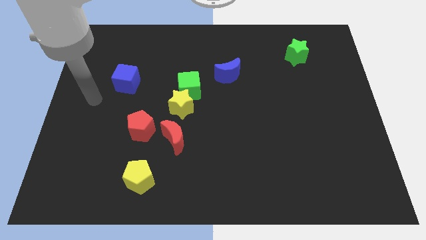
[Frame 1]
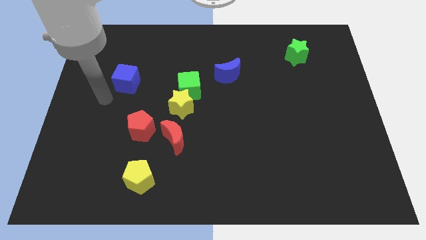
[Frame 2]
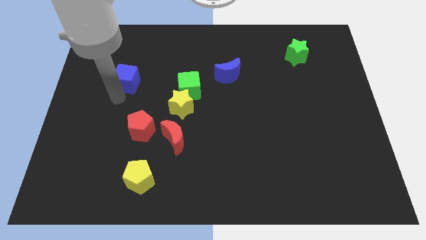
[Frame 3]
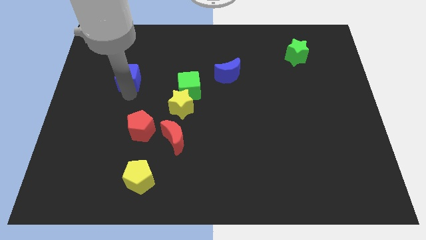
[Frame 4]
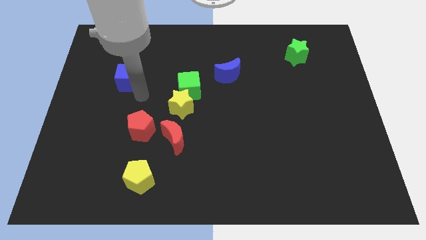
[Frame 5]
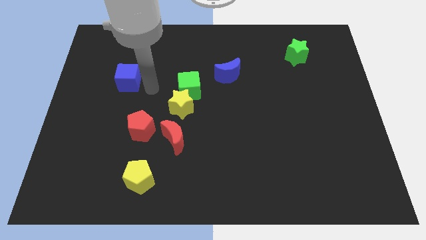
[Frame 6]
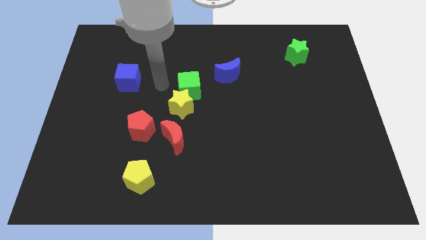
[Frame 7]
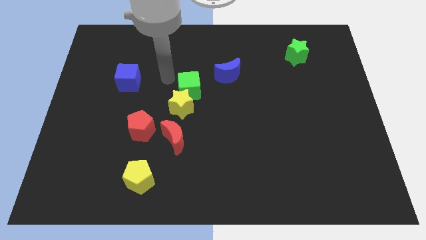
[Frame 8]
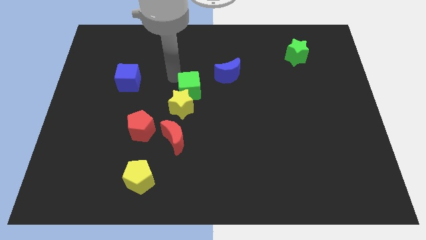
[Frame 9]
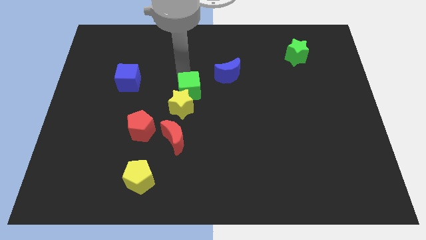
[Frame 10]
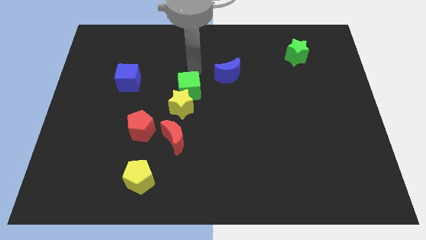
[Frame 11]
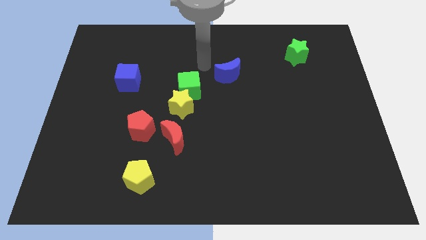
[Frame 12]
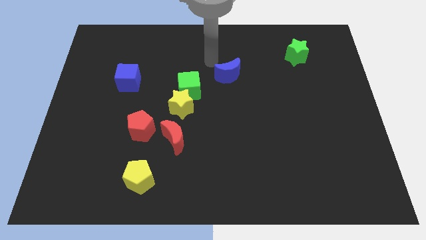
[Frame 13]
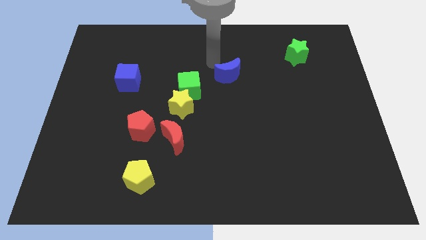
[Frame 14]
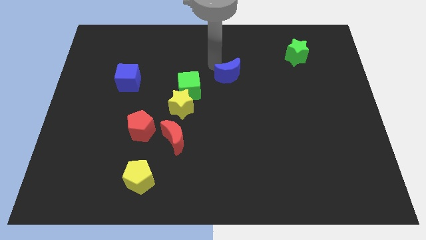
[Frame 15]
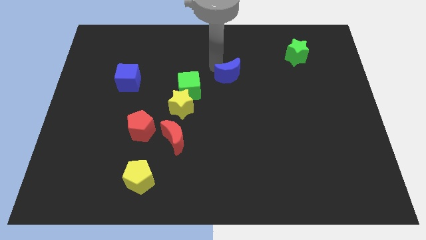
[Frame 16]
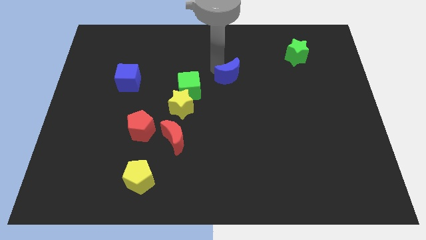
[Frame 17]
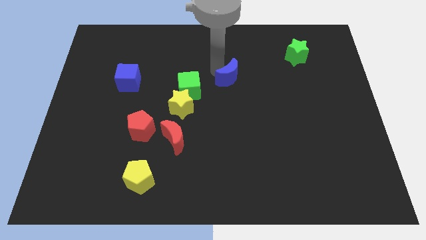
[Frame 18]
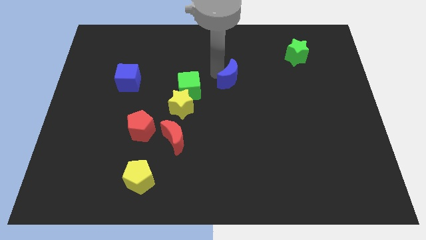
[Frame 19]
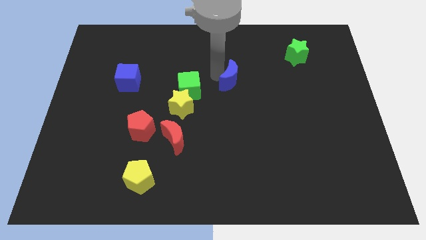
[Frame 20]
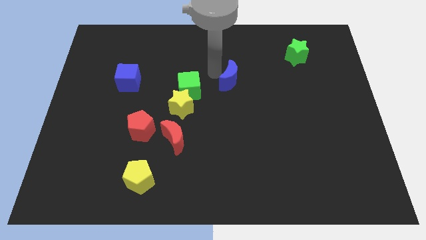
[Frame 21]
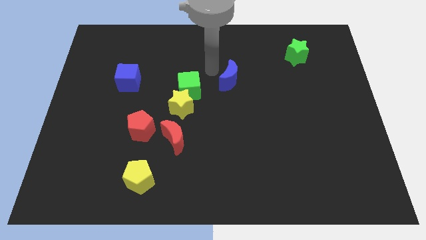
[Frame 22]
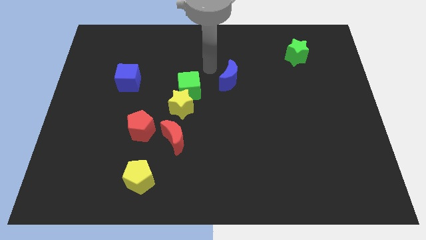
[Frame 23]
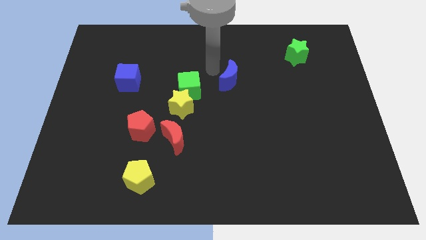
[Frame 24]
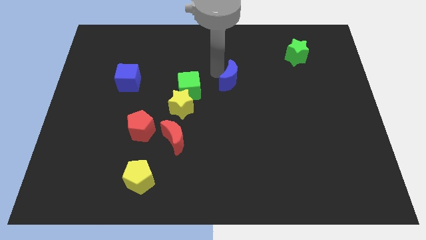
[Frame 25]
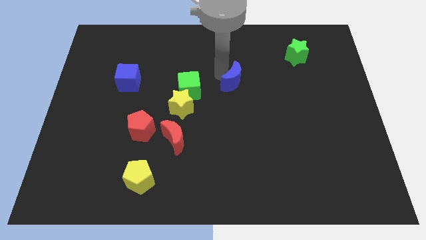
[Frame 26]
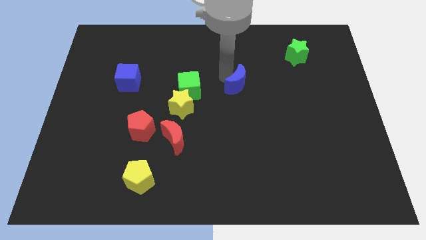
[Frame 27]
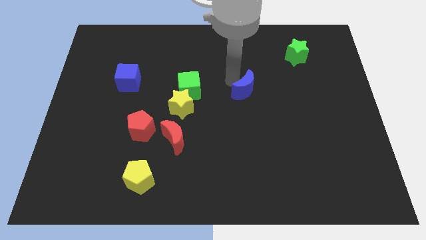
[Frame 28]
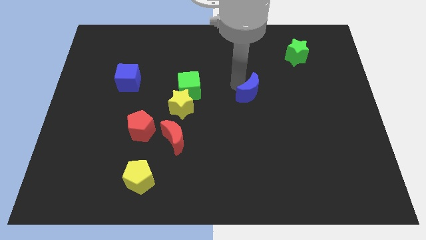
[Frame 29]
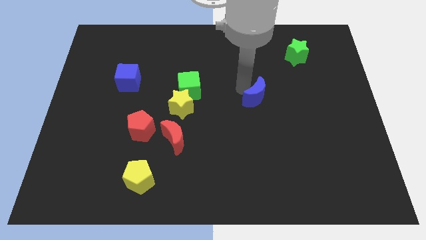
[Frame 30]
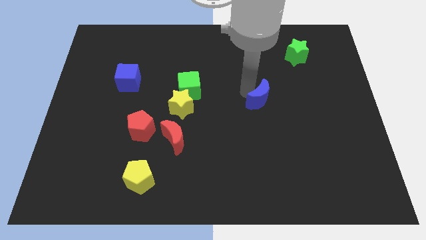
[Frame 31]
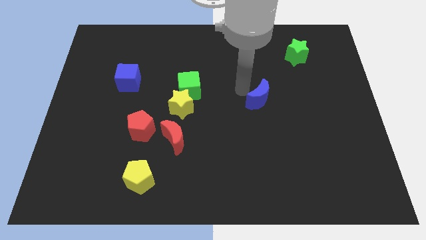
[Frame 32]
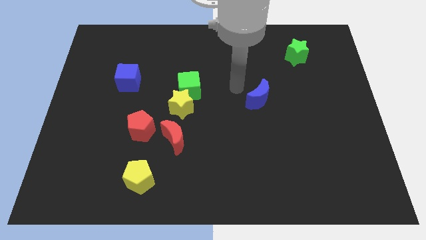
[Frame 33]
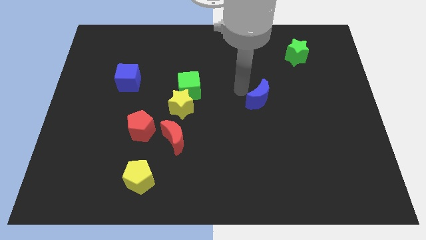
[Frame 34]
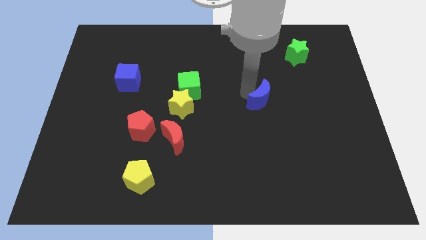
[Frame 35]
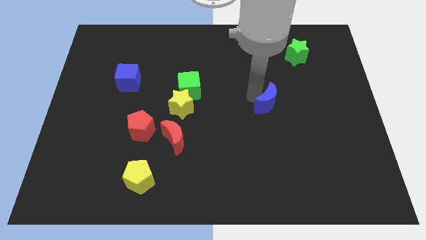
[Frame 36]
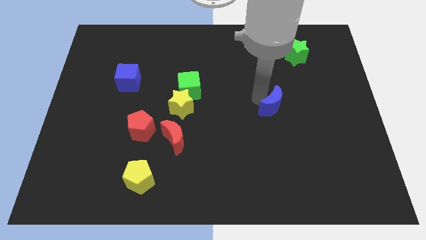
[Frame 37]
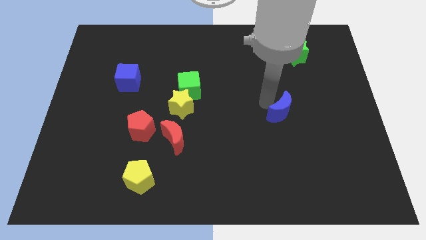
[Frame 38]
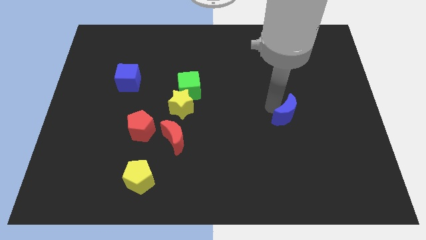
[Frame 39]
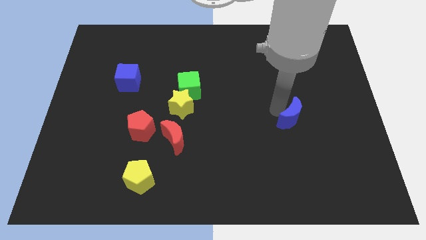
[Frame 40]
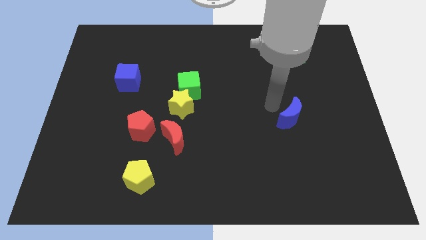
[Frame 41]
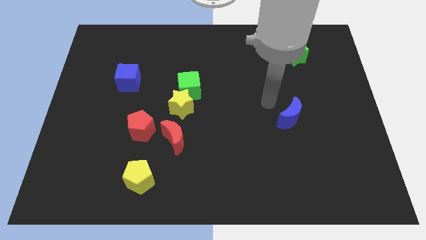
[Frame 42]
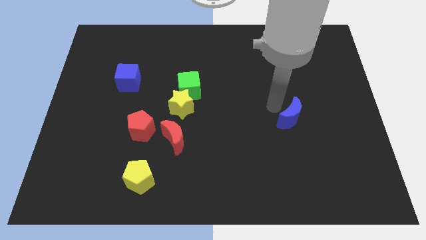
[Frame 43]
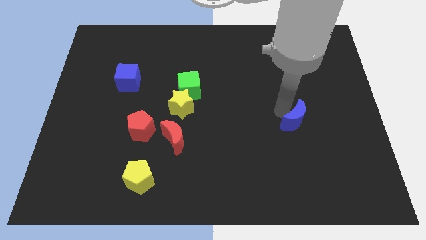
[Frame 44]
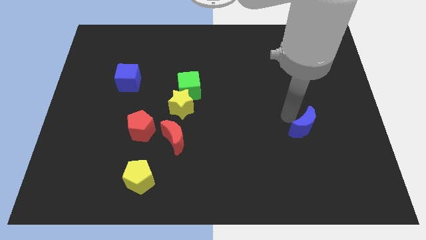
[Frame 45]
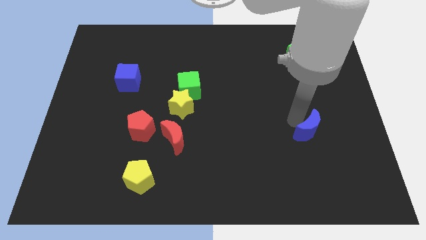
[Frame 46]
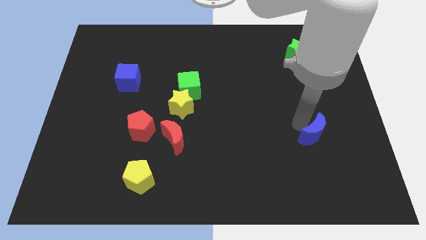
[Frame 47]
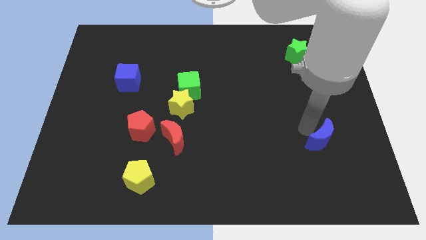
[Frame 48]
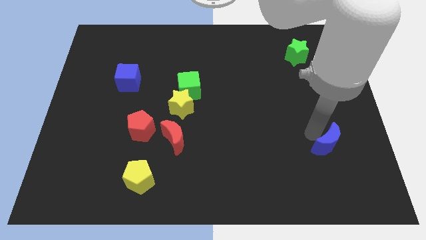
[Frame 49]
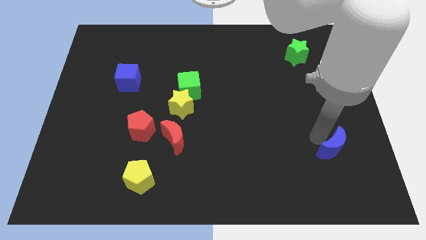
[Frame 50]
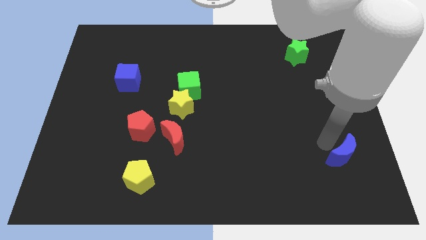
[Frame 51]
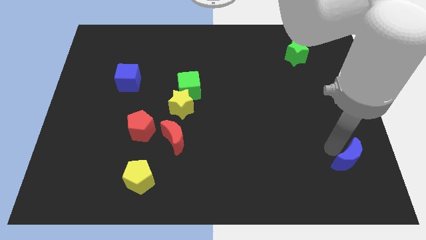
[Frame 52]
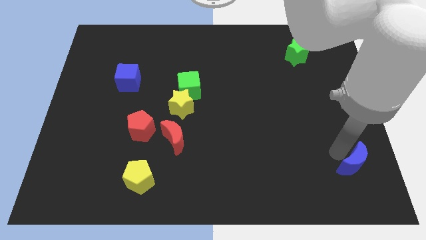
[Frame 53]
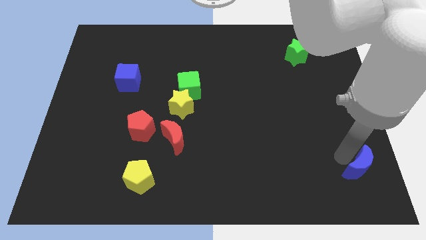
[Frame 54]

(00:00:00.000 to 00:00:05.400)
put the blue moon to the bottom right of the board

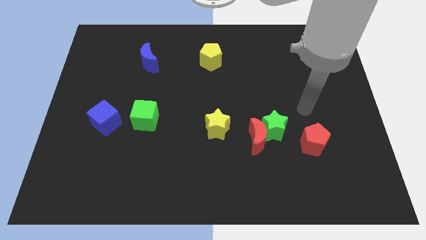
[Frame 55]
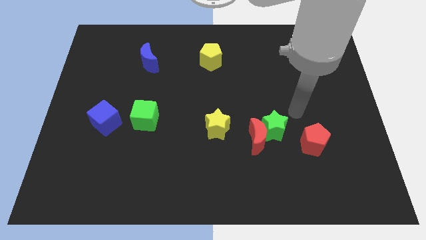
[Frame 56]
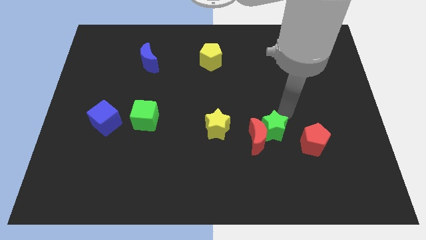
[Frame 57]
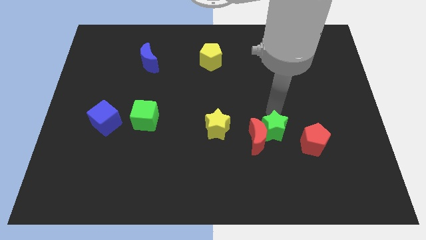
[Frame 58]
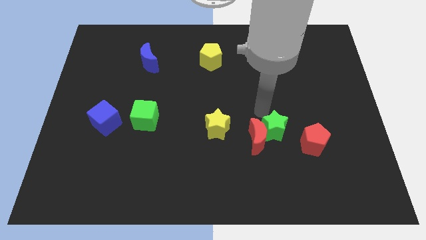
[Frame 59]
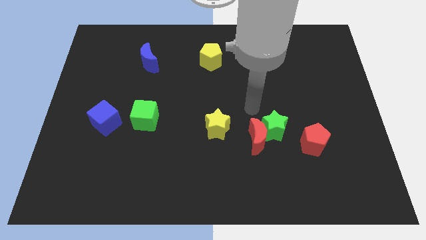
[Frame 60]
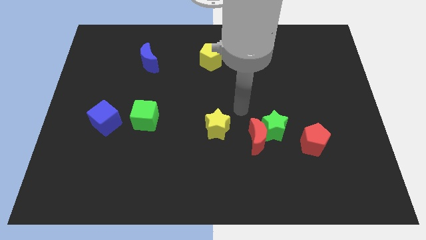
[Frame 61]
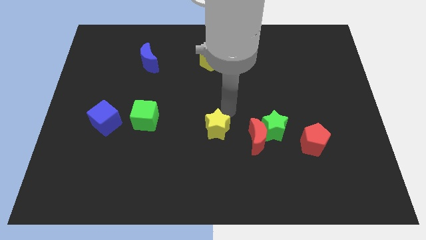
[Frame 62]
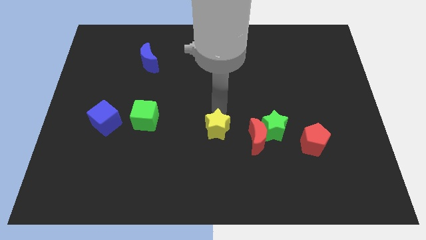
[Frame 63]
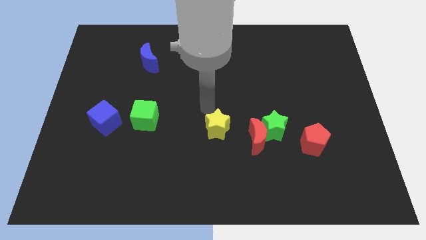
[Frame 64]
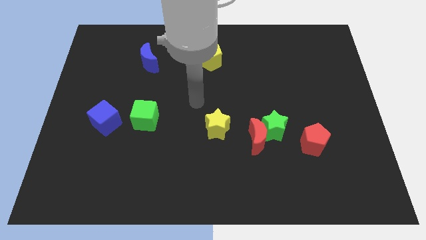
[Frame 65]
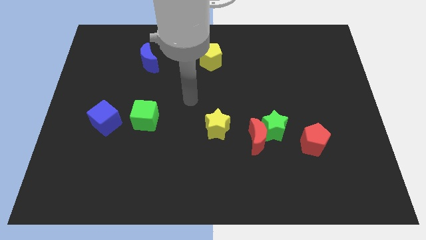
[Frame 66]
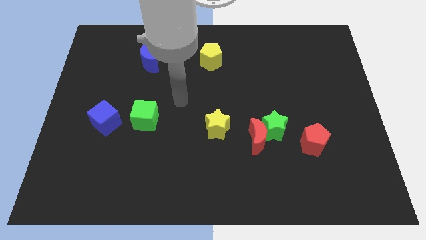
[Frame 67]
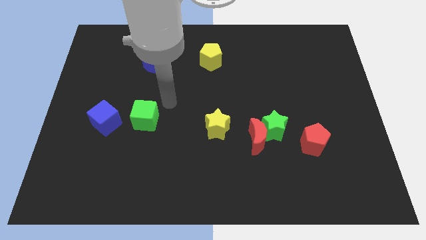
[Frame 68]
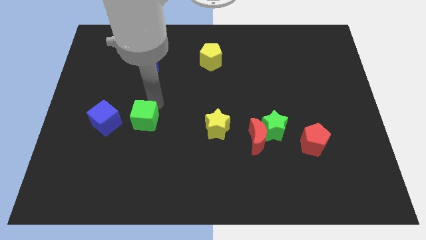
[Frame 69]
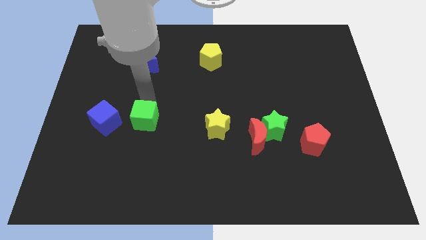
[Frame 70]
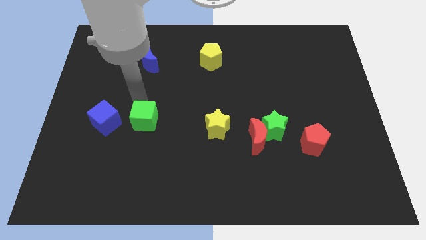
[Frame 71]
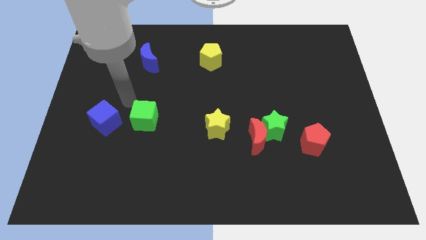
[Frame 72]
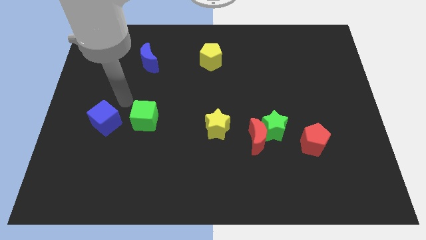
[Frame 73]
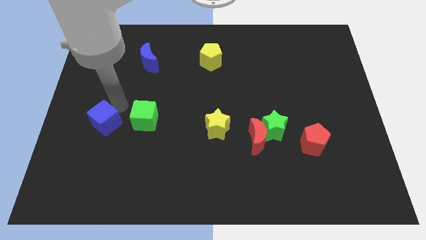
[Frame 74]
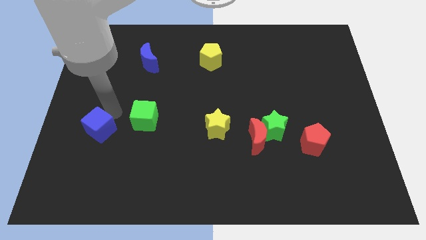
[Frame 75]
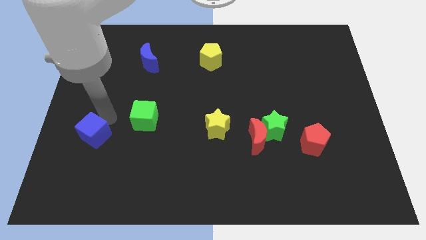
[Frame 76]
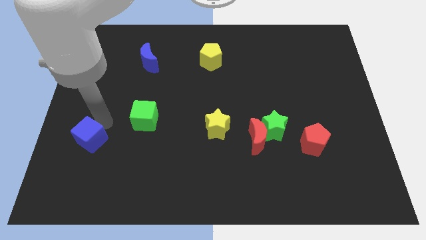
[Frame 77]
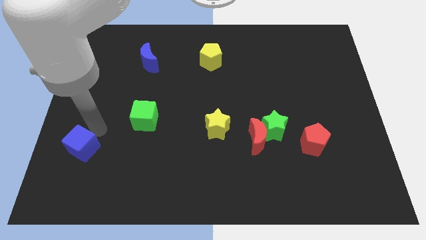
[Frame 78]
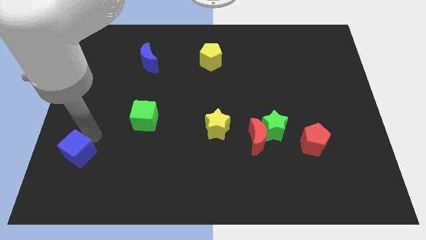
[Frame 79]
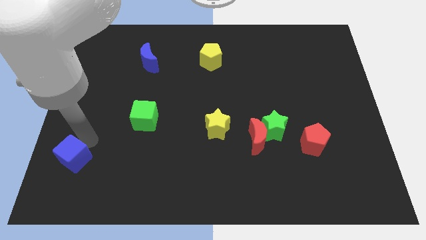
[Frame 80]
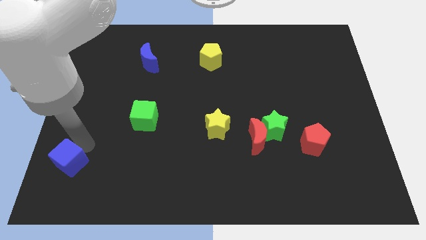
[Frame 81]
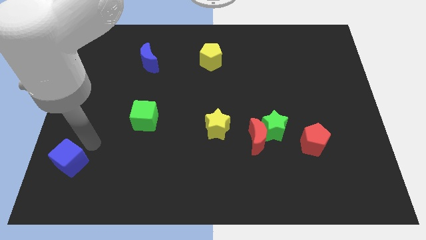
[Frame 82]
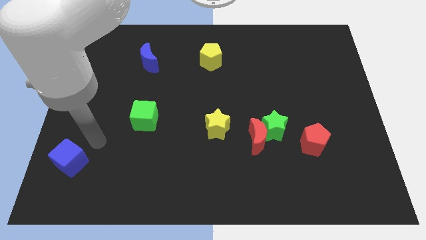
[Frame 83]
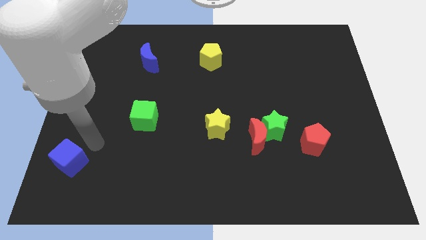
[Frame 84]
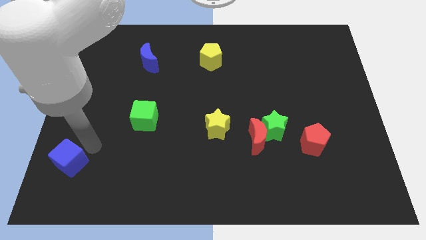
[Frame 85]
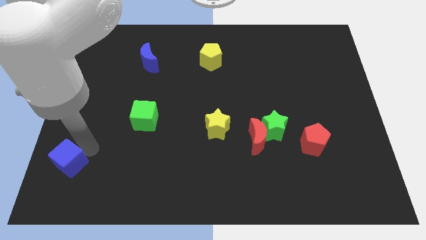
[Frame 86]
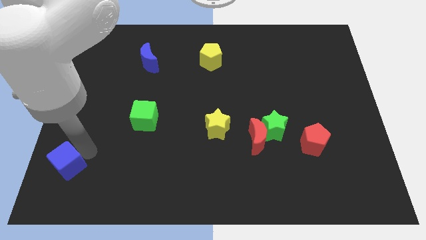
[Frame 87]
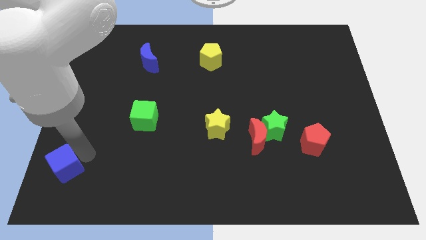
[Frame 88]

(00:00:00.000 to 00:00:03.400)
push the blue cube to the lower left corner
